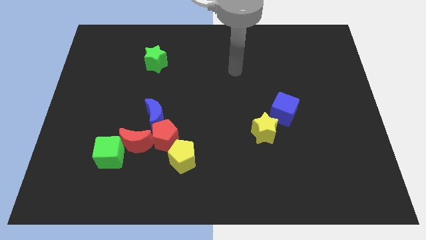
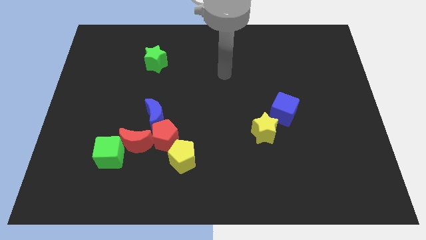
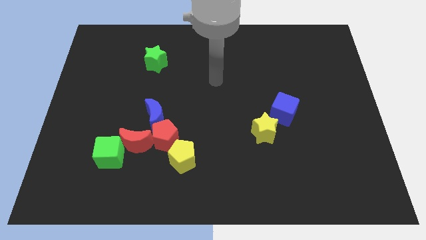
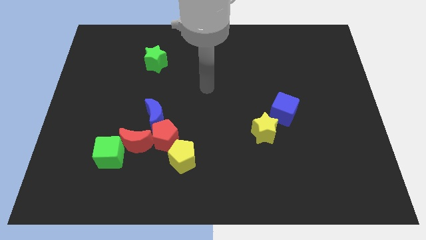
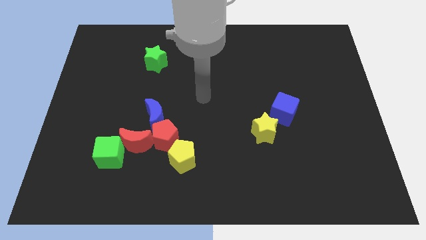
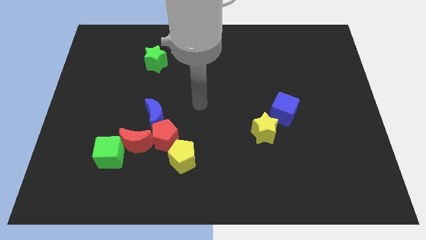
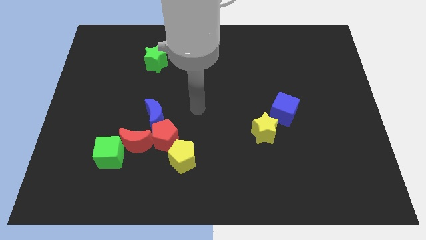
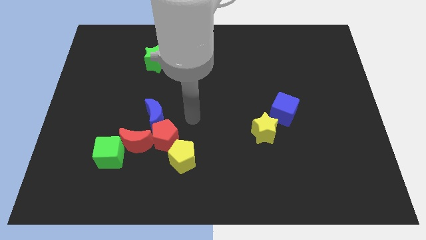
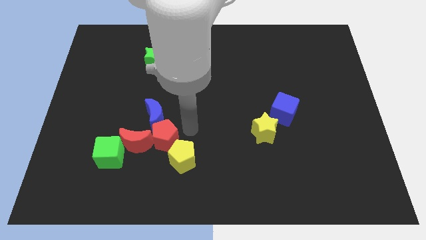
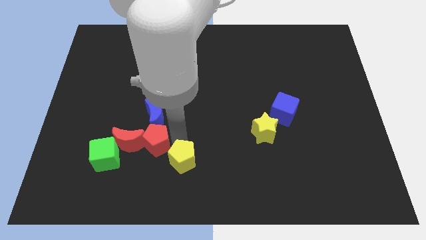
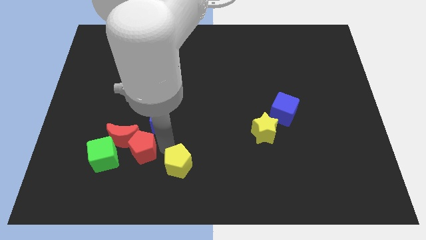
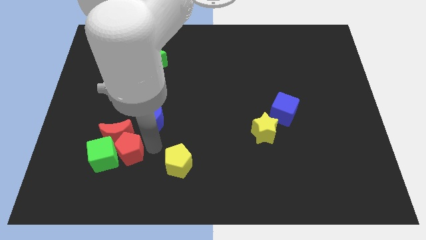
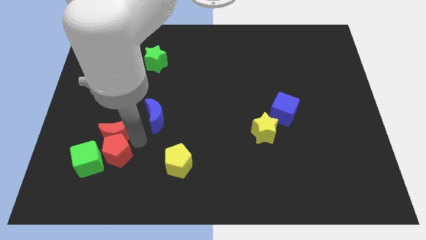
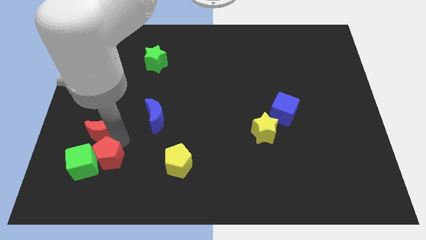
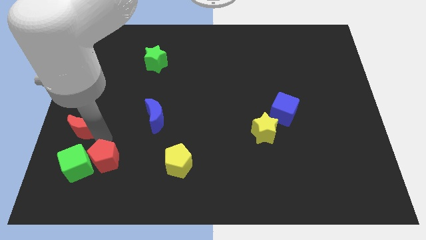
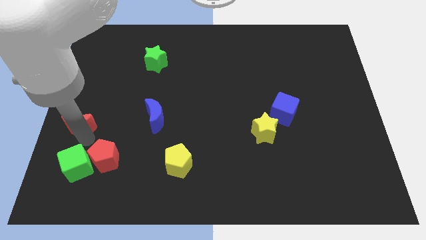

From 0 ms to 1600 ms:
pull the green cube apart from the red moon

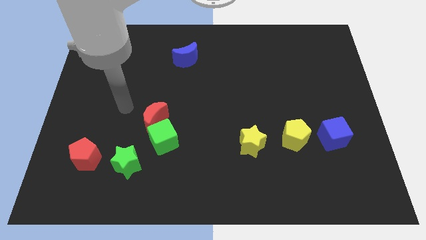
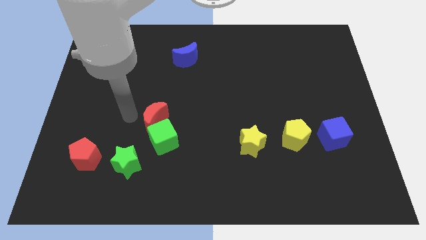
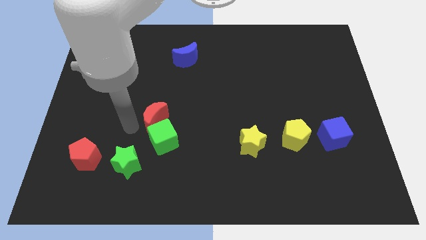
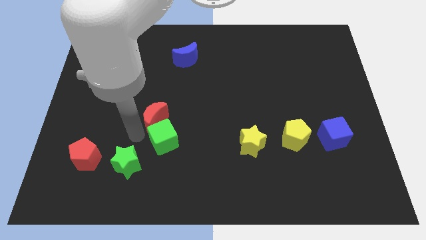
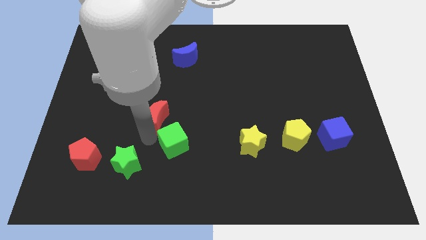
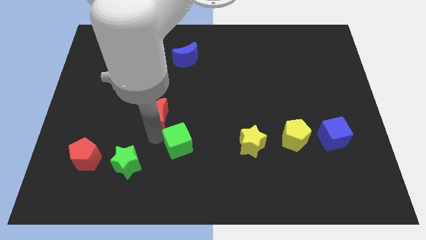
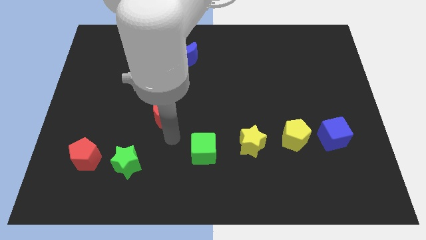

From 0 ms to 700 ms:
move the red moon away from the green cube

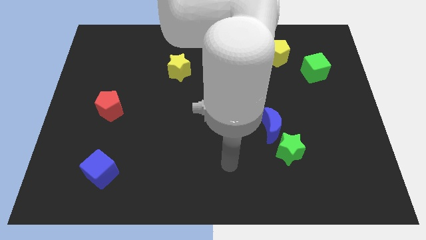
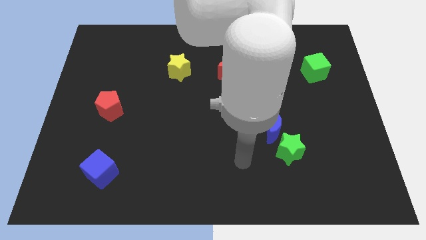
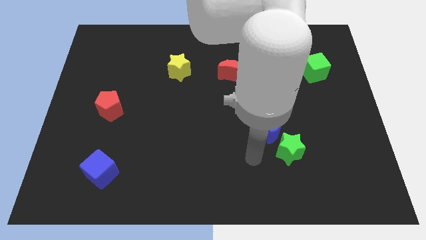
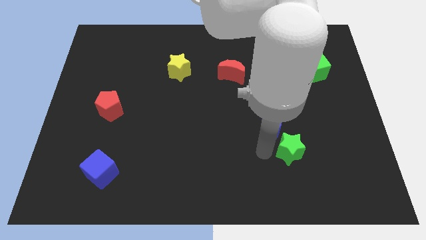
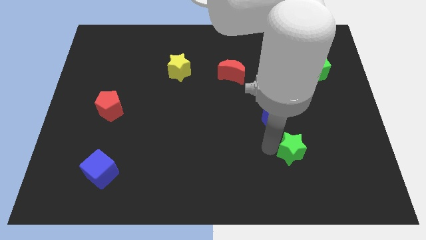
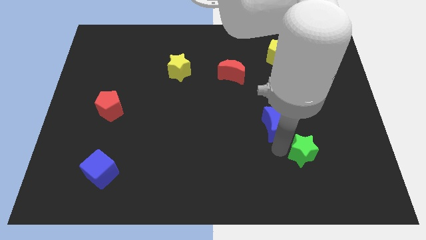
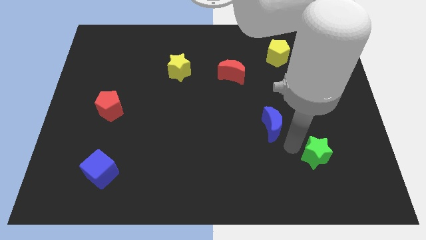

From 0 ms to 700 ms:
separate the blue moon from the green star

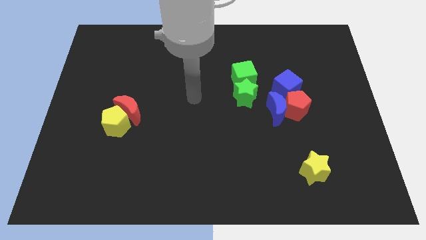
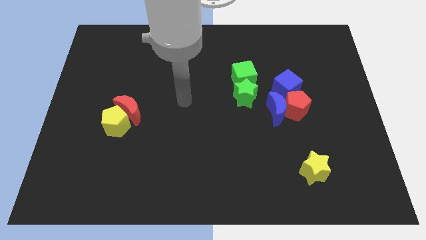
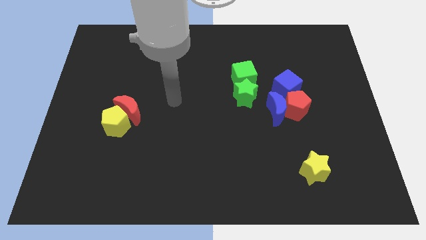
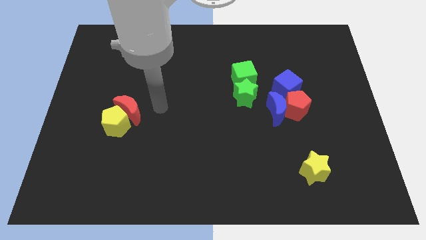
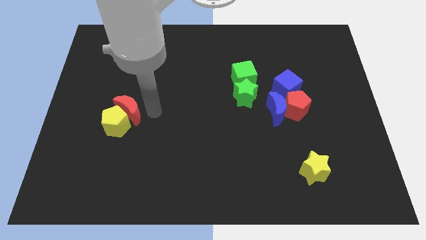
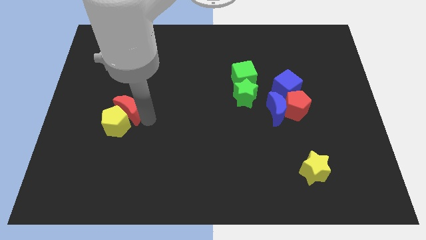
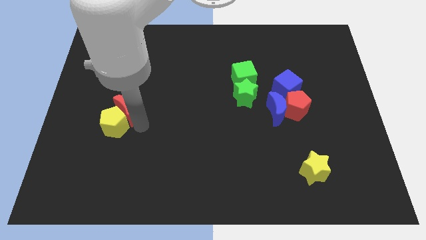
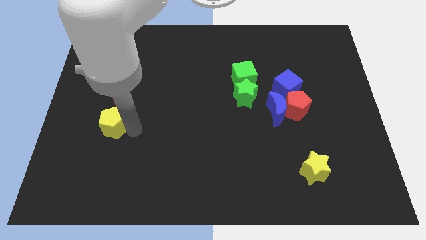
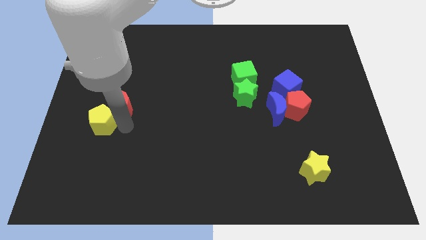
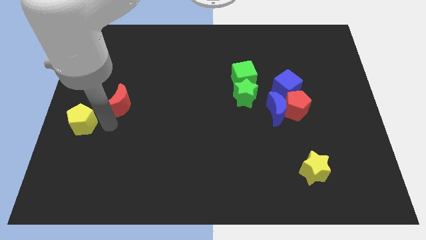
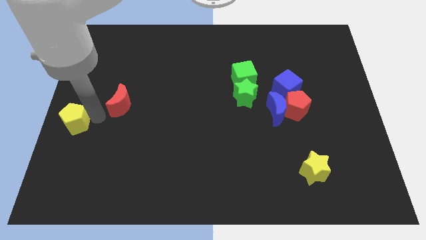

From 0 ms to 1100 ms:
move the red moon away from the yellow pentagon

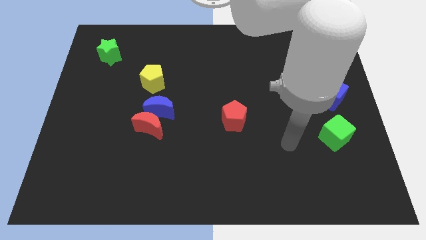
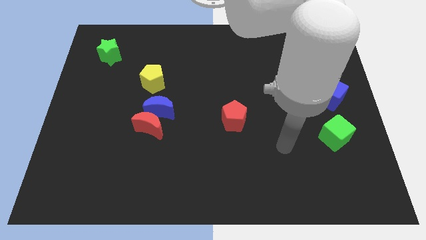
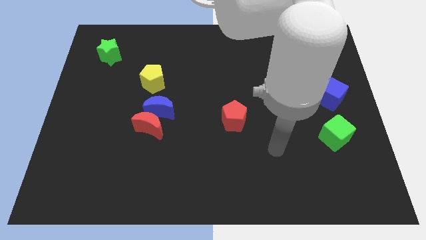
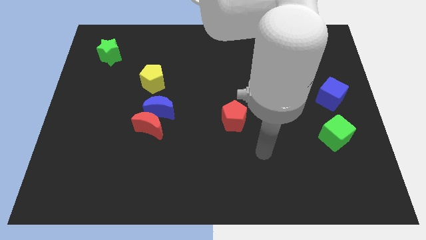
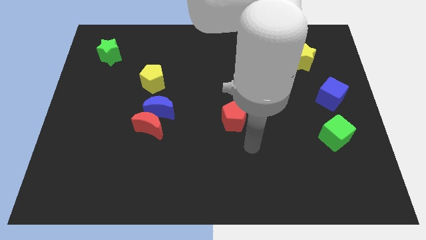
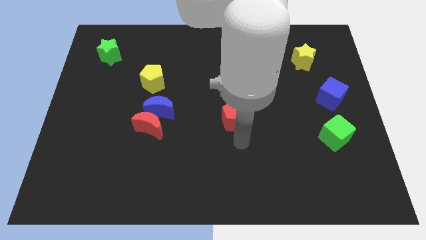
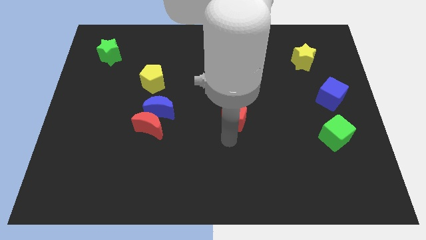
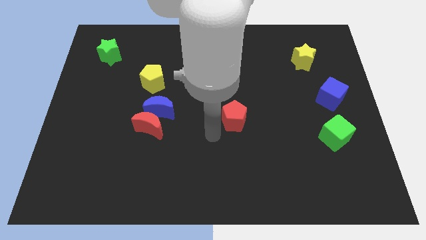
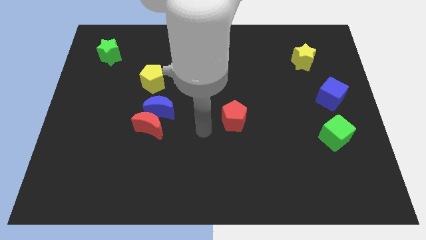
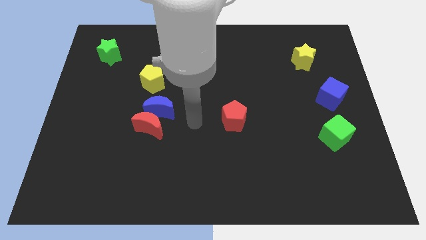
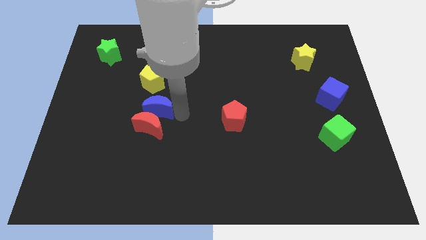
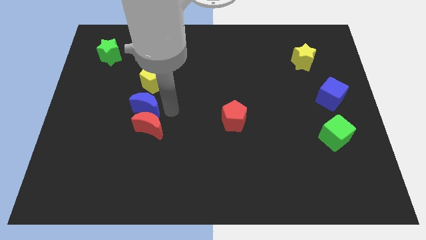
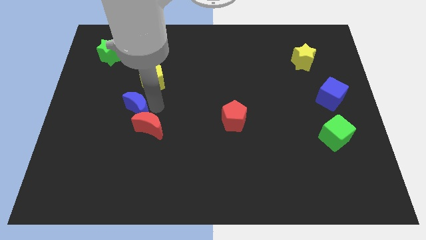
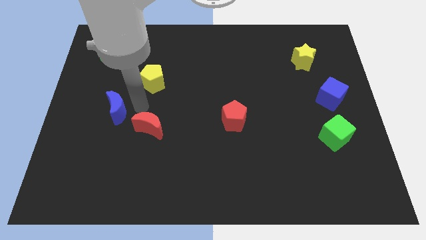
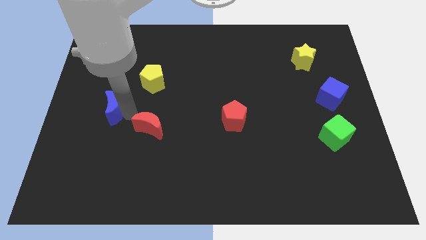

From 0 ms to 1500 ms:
move the red moon away from the blue moon

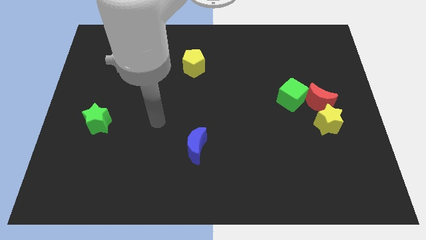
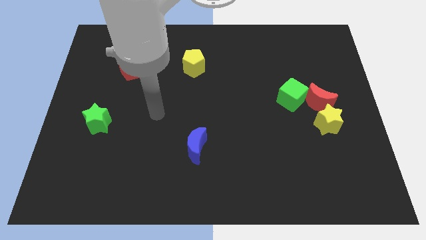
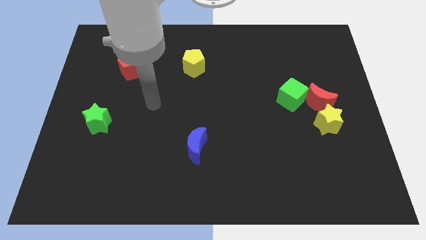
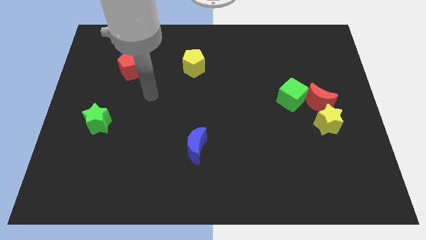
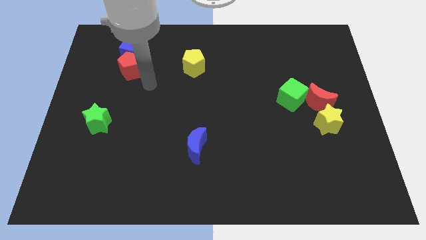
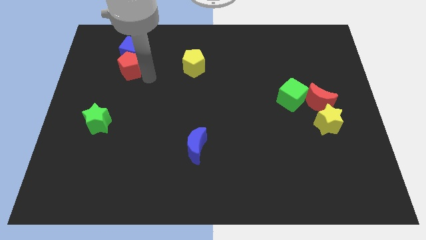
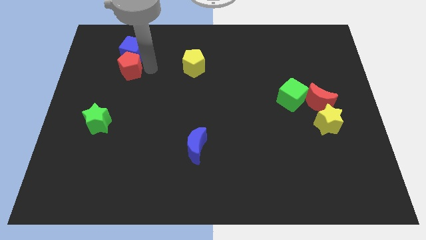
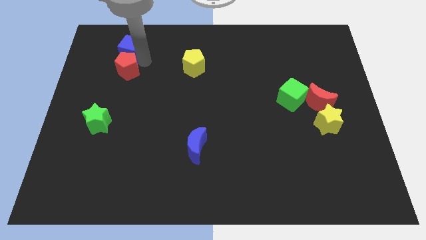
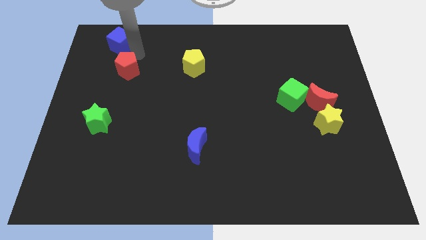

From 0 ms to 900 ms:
move the red pentagon away from the blue cube

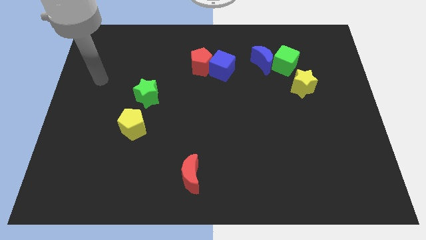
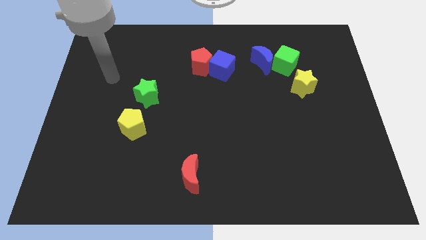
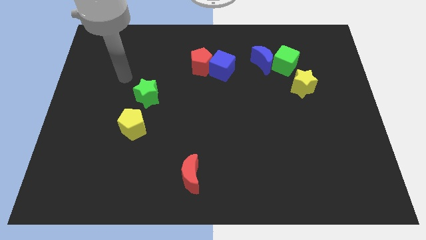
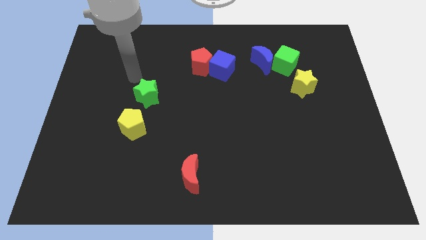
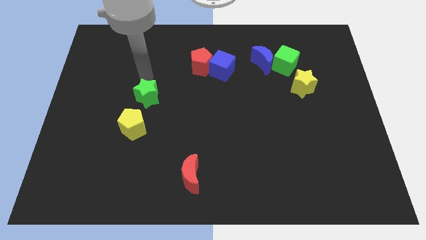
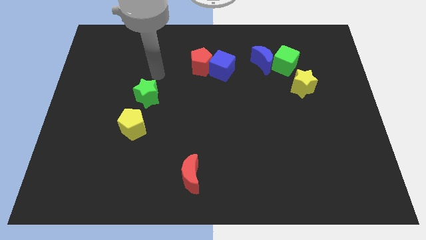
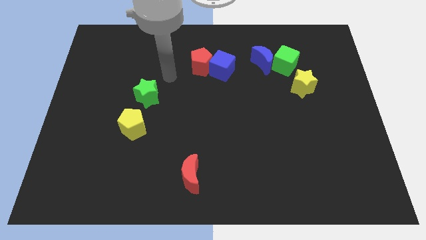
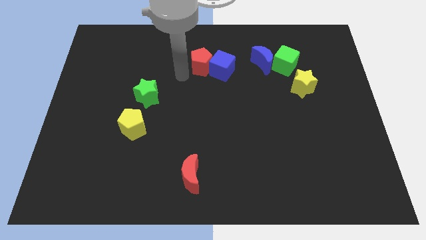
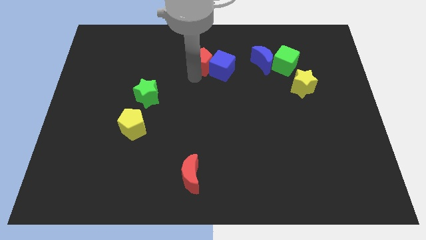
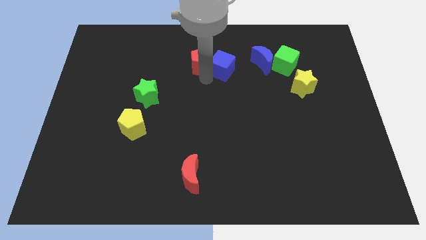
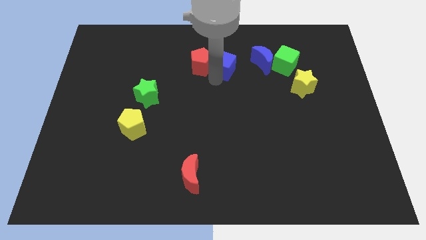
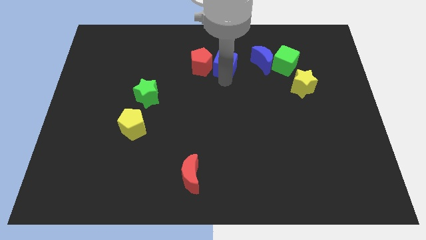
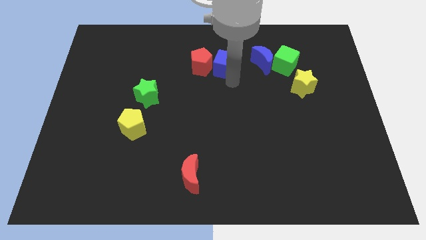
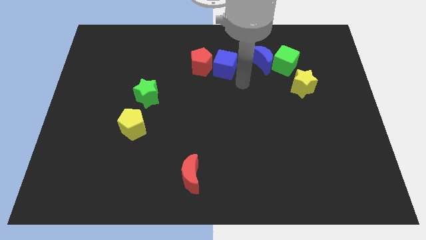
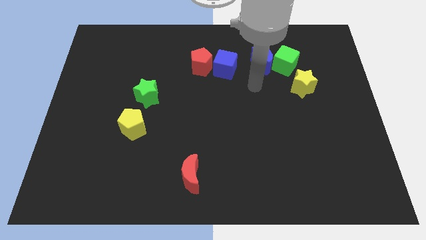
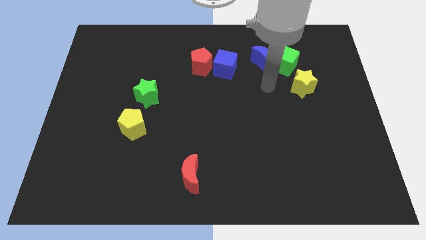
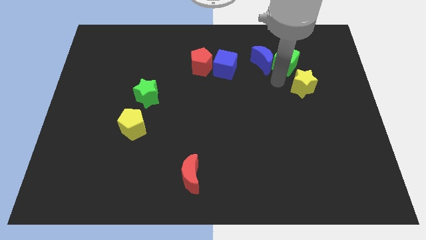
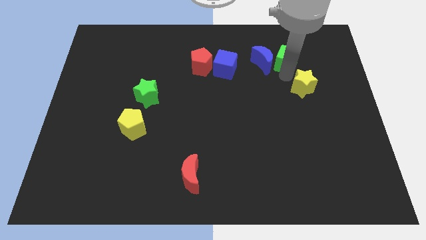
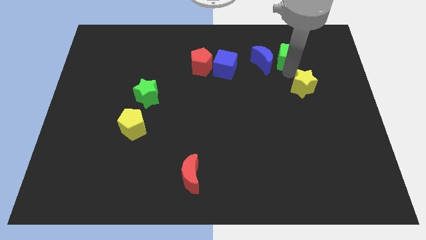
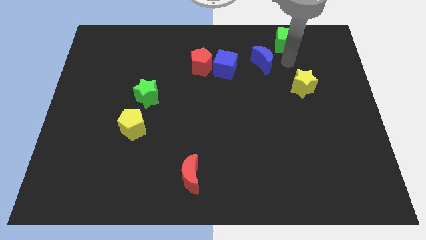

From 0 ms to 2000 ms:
pull the blue moon apart from the green cube

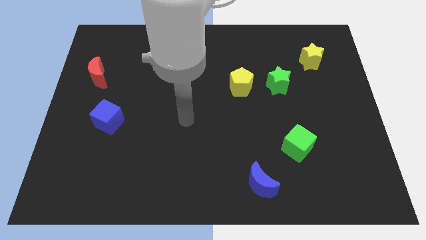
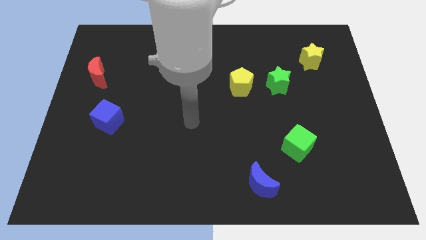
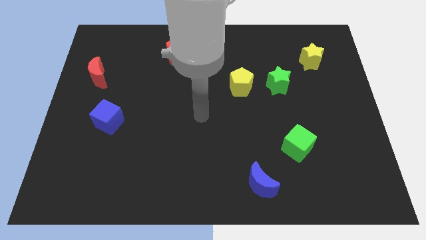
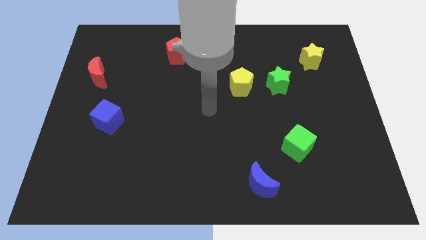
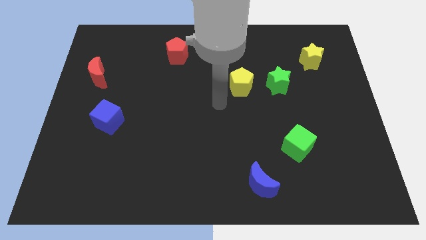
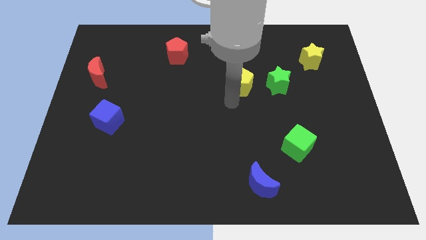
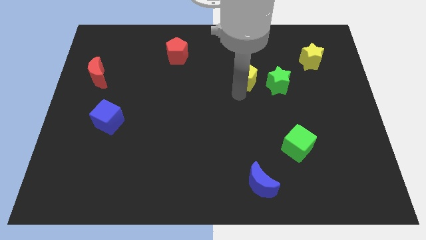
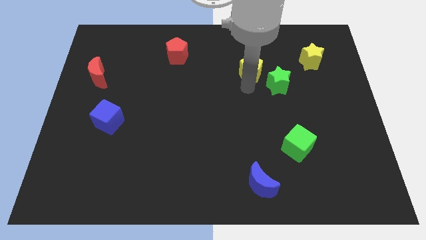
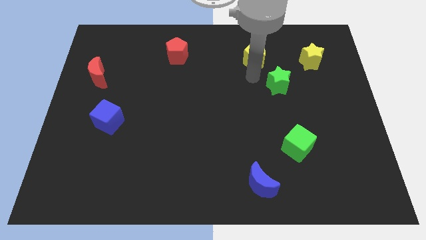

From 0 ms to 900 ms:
move the green star away from the yellow pentagon
